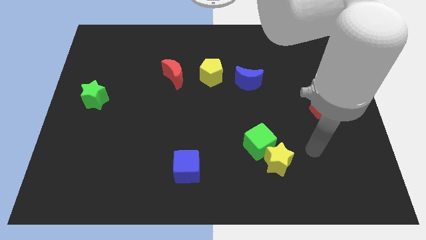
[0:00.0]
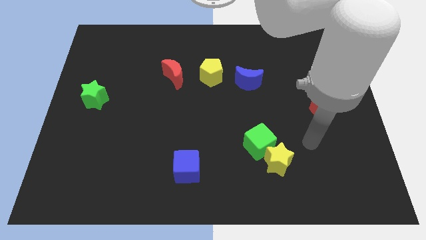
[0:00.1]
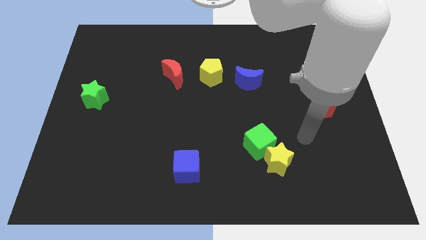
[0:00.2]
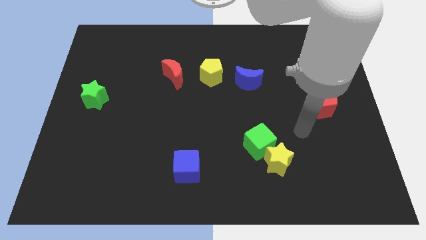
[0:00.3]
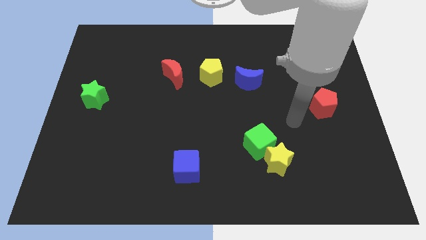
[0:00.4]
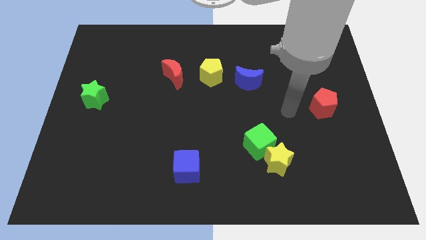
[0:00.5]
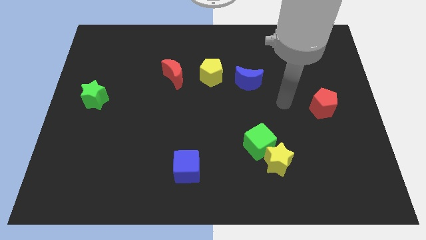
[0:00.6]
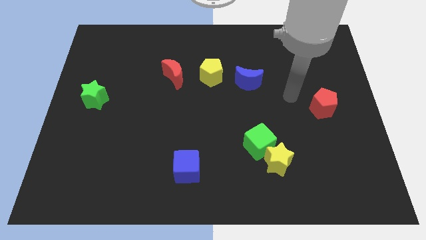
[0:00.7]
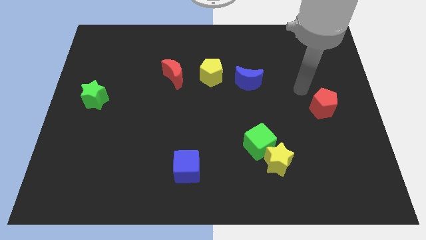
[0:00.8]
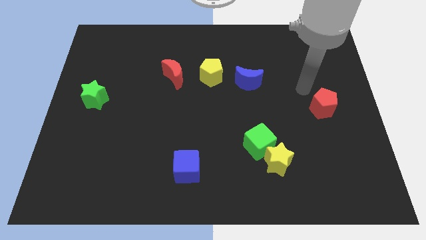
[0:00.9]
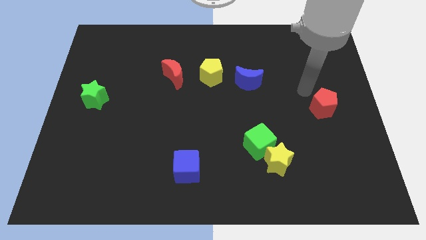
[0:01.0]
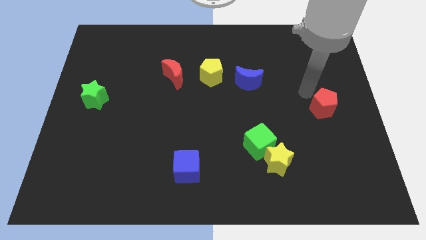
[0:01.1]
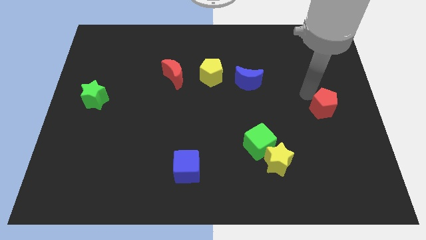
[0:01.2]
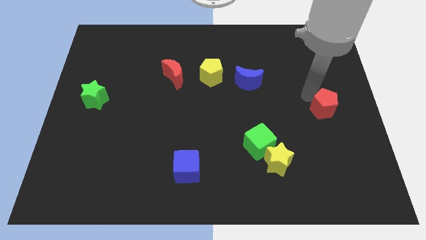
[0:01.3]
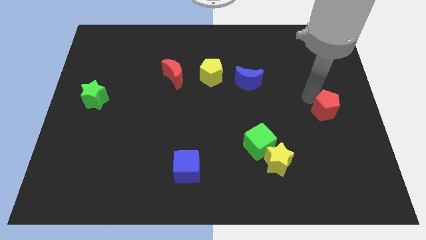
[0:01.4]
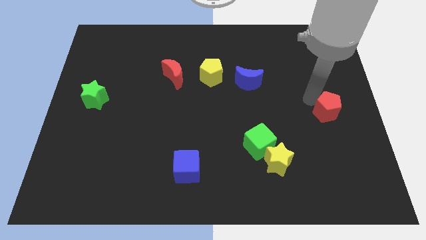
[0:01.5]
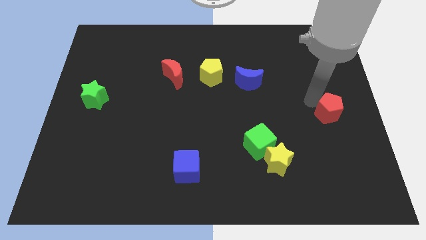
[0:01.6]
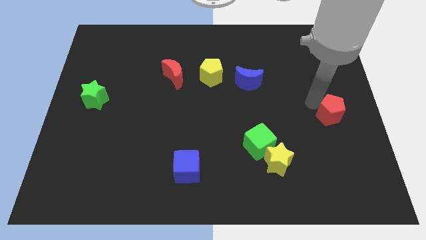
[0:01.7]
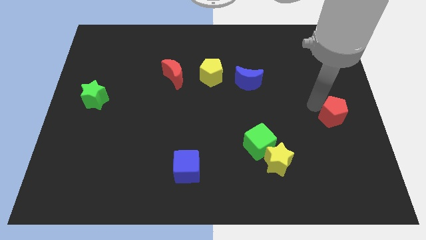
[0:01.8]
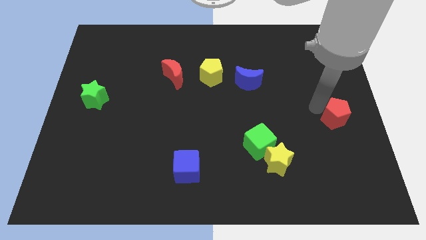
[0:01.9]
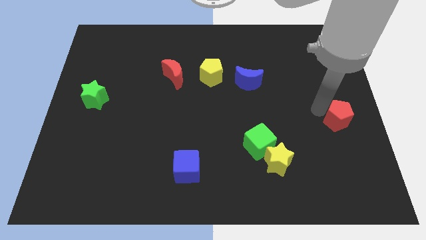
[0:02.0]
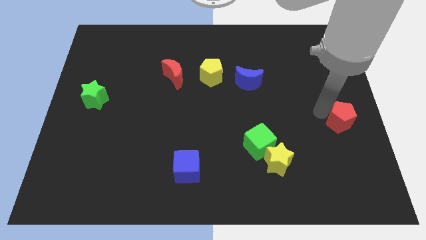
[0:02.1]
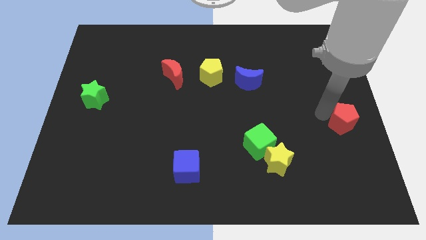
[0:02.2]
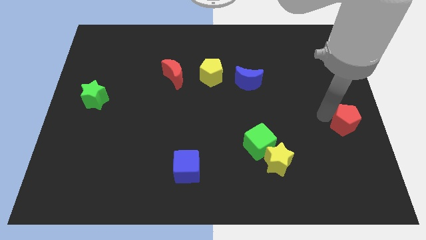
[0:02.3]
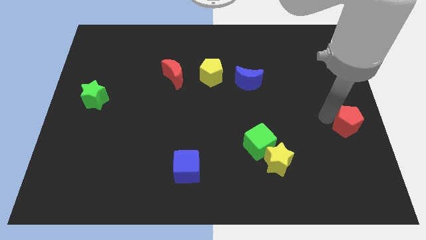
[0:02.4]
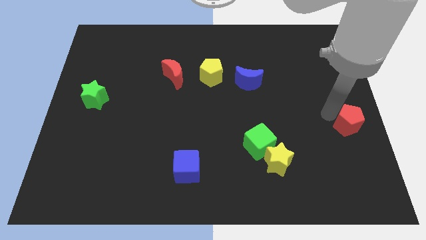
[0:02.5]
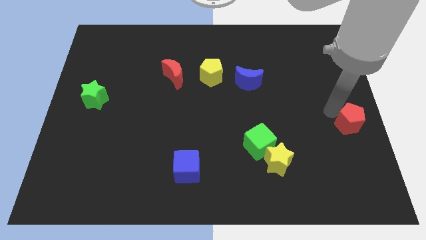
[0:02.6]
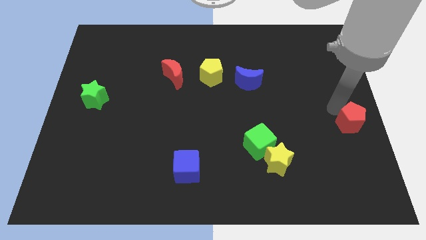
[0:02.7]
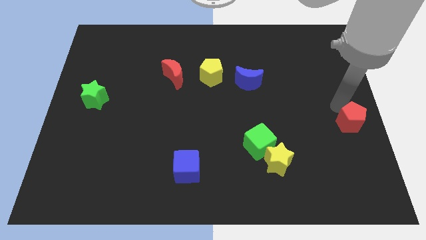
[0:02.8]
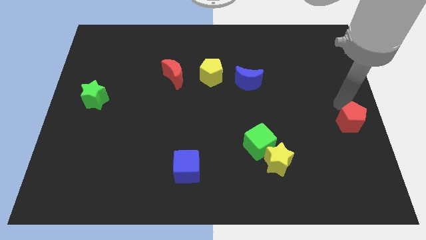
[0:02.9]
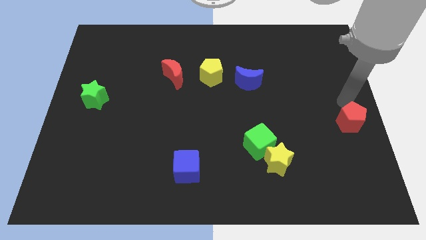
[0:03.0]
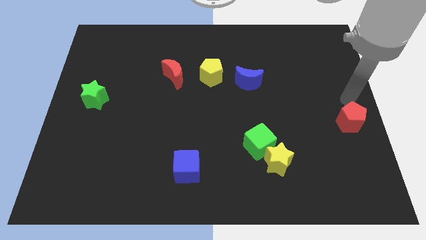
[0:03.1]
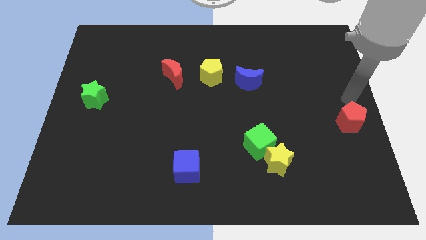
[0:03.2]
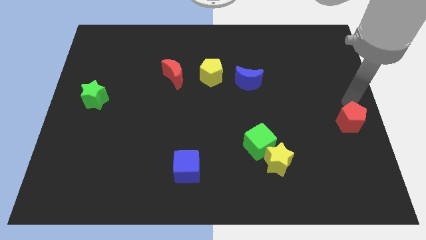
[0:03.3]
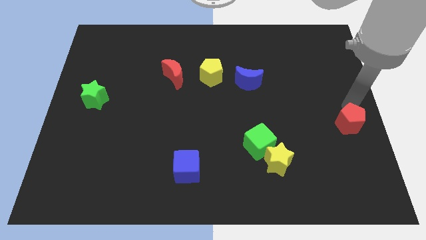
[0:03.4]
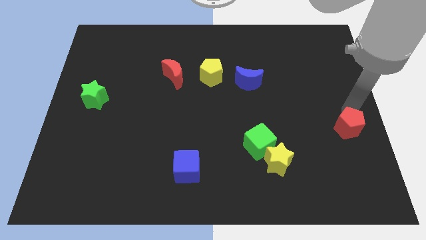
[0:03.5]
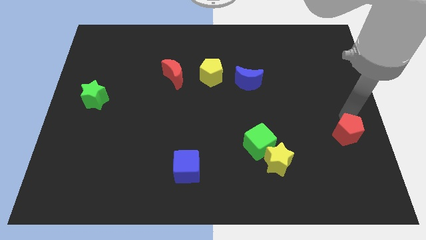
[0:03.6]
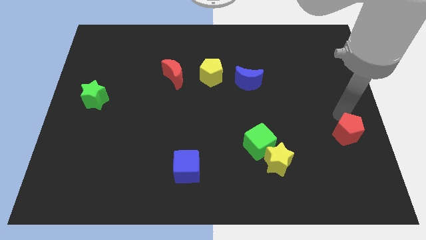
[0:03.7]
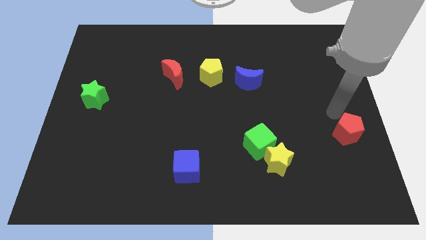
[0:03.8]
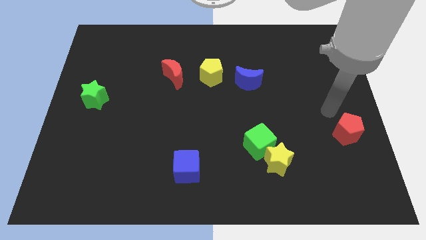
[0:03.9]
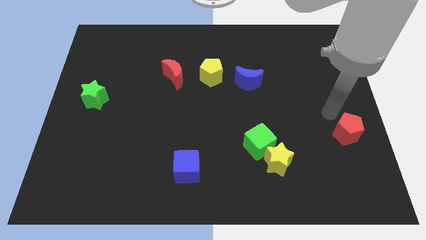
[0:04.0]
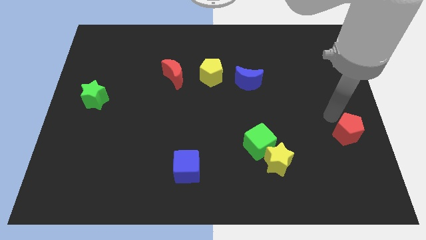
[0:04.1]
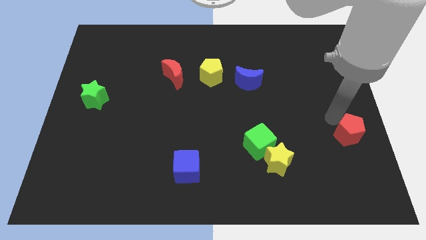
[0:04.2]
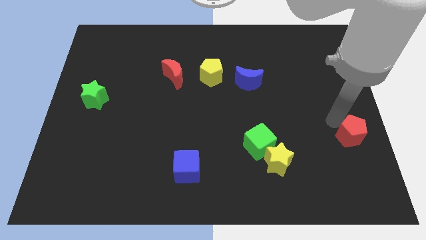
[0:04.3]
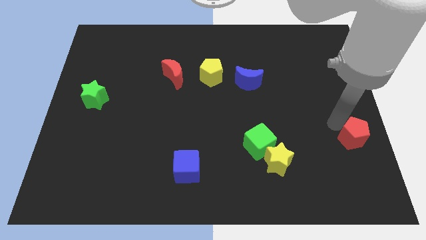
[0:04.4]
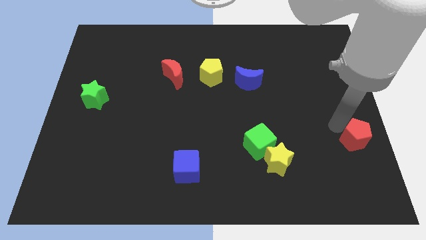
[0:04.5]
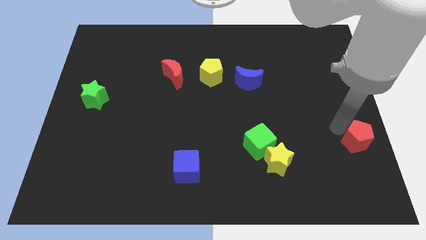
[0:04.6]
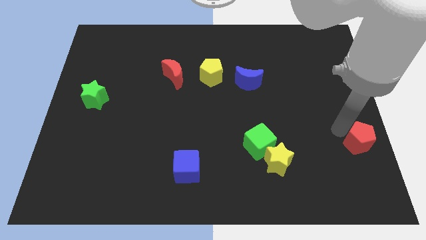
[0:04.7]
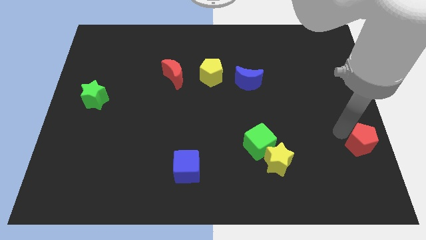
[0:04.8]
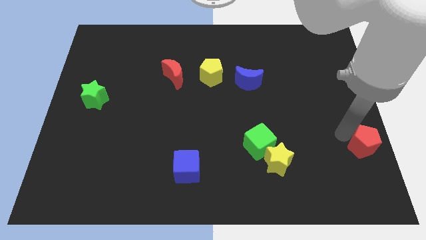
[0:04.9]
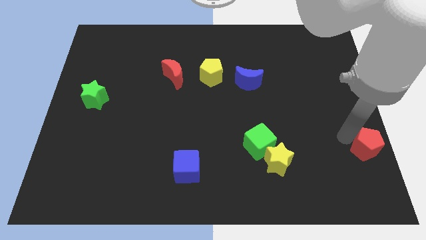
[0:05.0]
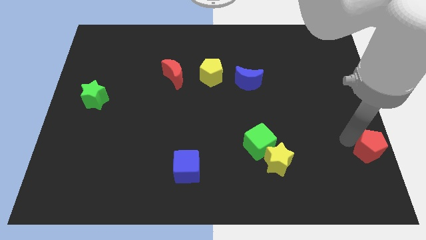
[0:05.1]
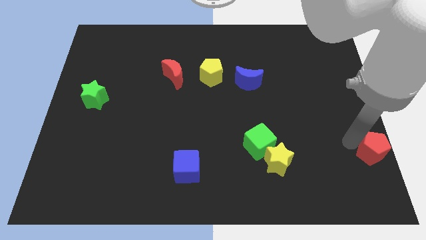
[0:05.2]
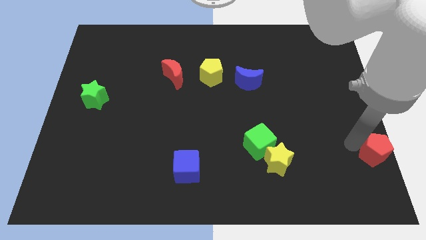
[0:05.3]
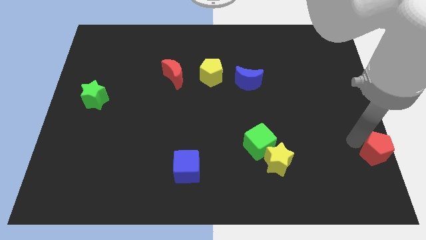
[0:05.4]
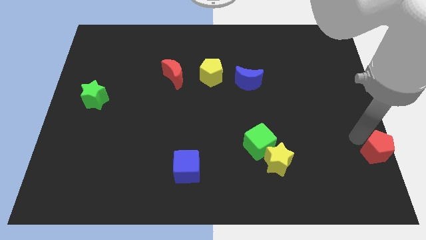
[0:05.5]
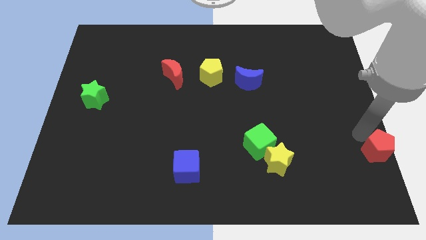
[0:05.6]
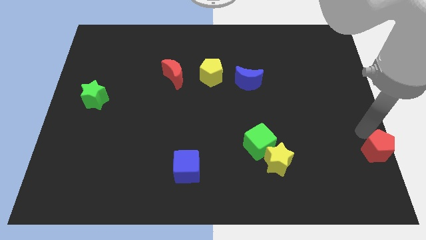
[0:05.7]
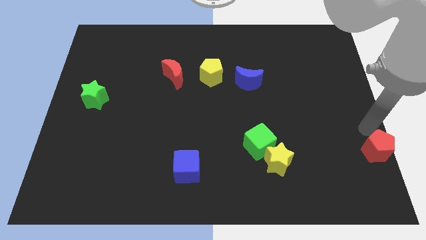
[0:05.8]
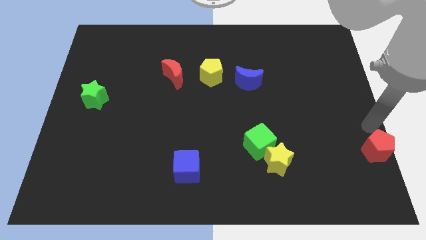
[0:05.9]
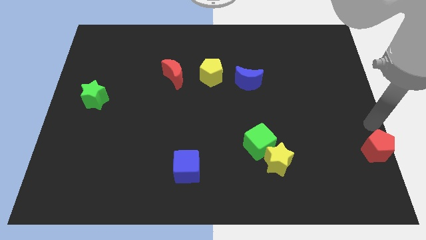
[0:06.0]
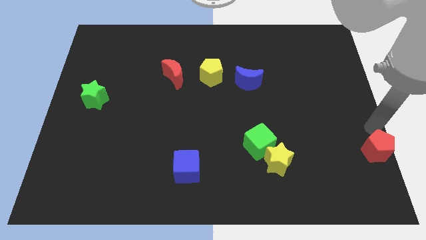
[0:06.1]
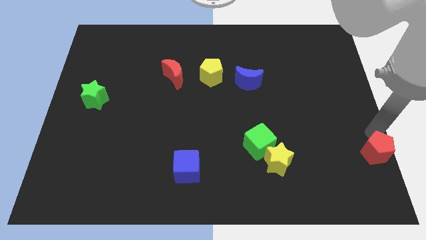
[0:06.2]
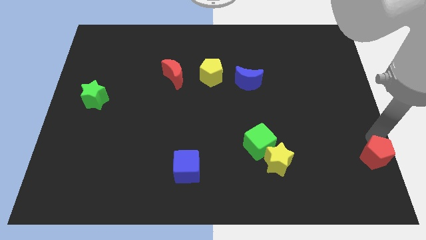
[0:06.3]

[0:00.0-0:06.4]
move the red pentagon to the bottom right corner

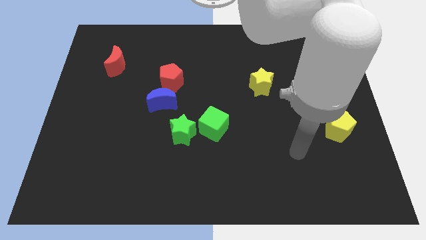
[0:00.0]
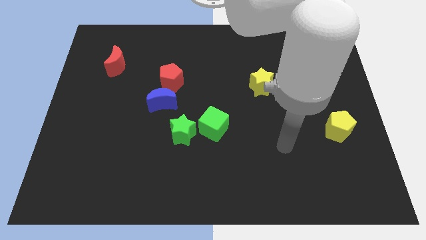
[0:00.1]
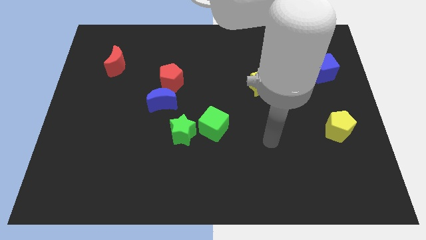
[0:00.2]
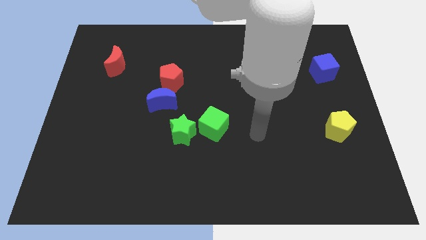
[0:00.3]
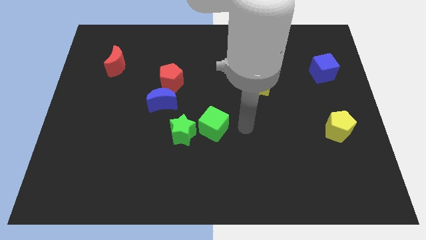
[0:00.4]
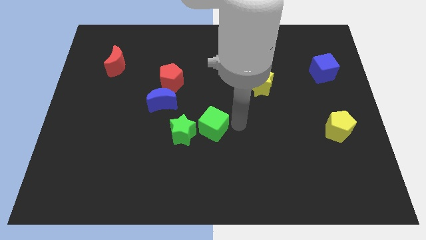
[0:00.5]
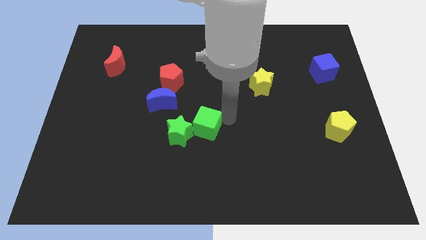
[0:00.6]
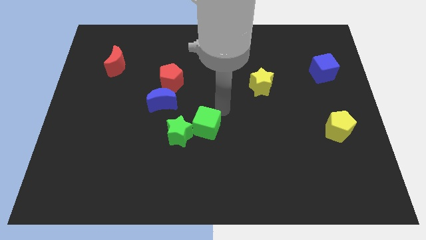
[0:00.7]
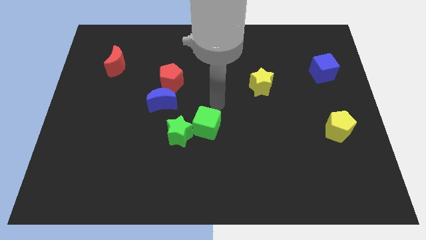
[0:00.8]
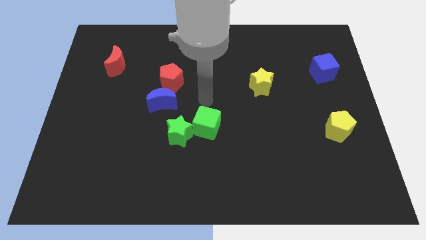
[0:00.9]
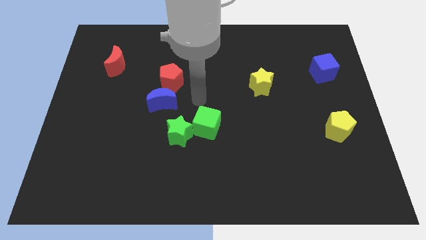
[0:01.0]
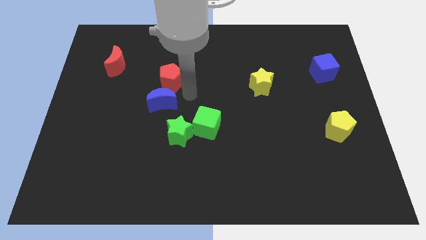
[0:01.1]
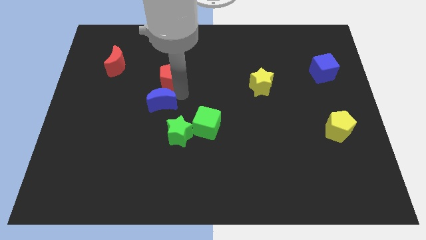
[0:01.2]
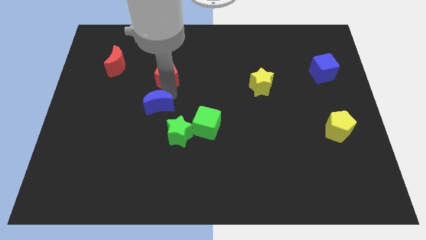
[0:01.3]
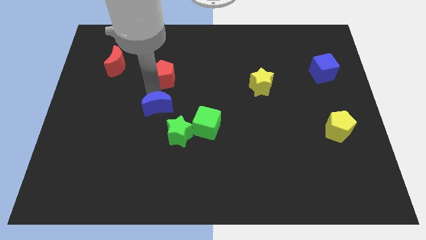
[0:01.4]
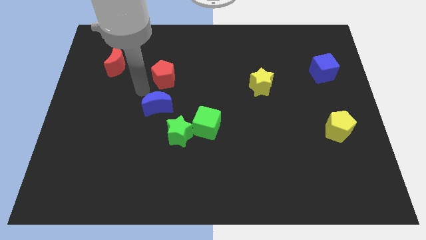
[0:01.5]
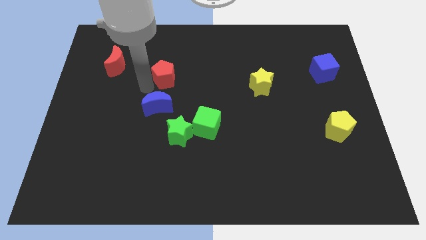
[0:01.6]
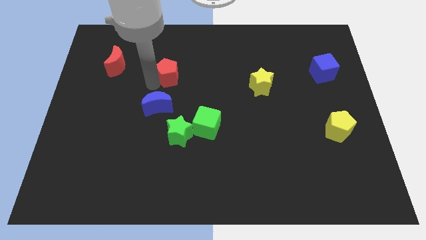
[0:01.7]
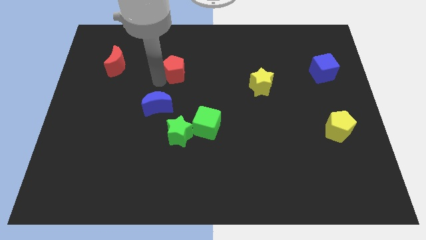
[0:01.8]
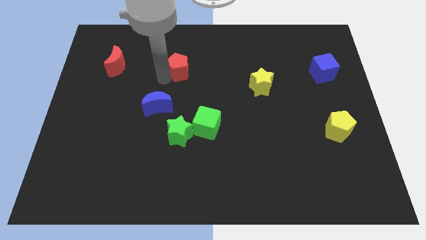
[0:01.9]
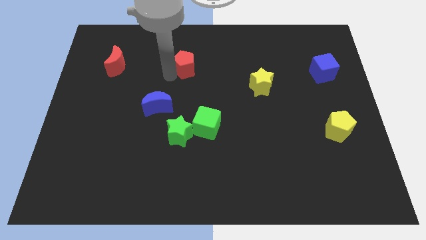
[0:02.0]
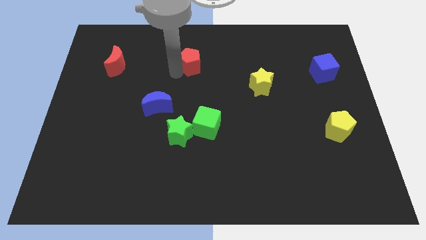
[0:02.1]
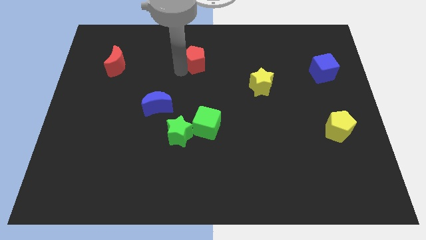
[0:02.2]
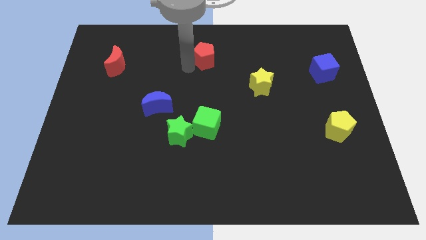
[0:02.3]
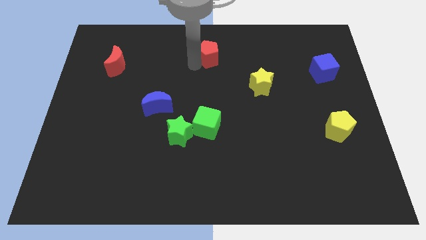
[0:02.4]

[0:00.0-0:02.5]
slide the red pentagon to the towards your base
